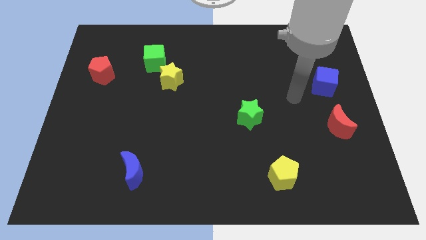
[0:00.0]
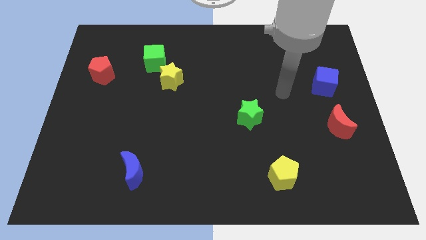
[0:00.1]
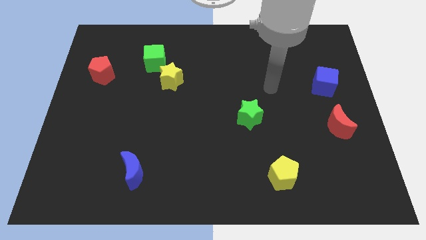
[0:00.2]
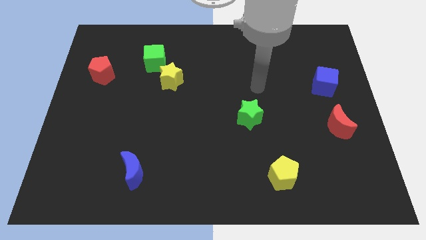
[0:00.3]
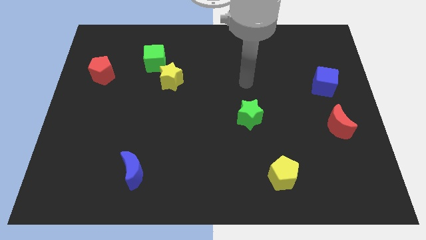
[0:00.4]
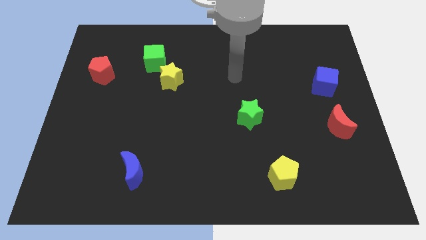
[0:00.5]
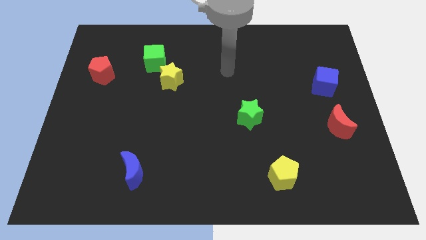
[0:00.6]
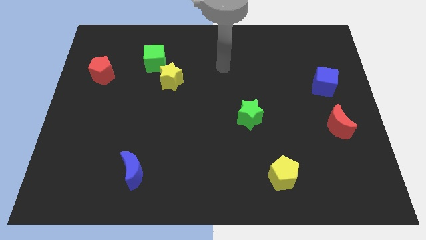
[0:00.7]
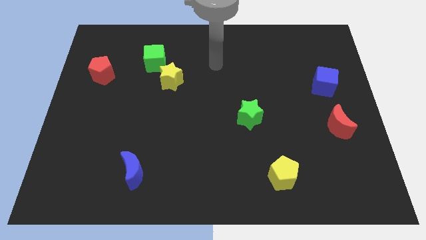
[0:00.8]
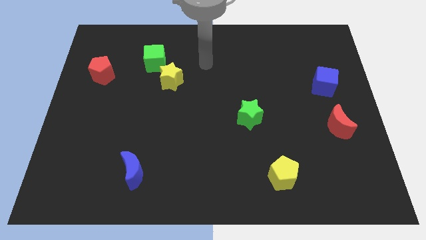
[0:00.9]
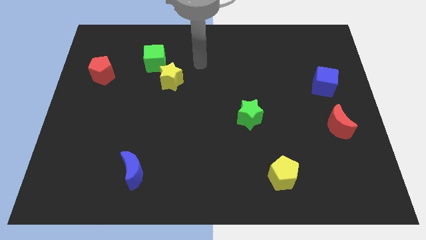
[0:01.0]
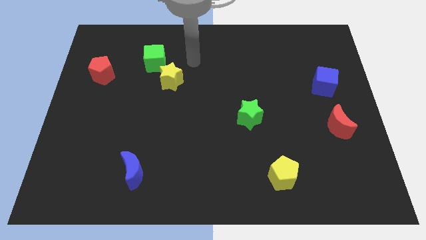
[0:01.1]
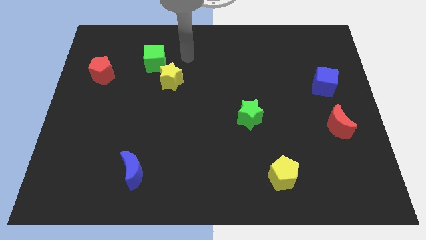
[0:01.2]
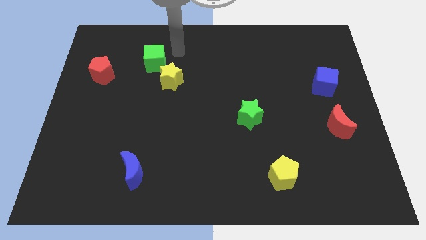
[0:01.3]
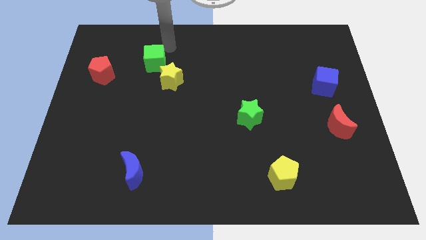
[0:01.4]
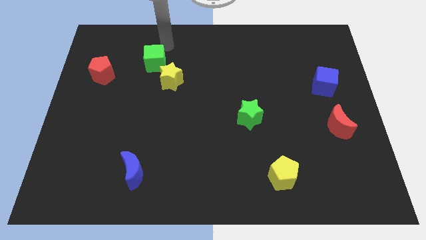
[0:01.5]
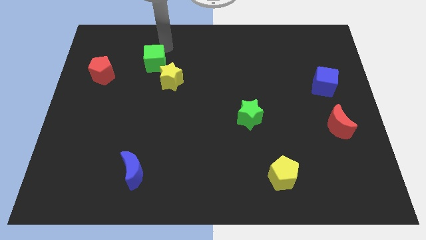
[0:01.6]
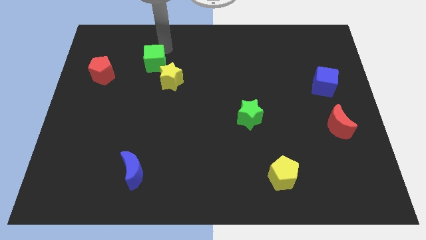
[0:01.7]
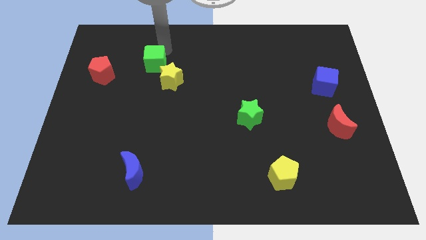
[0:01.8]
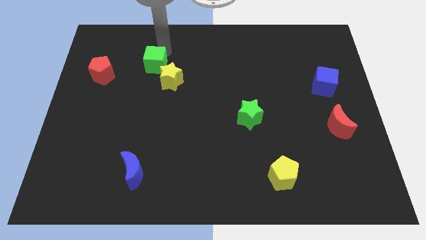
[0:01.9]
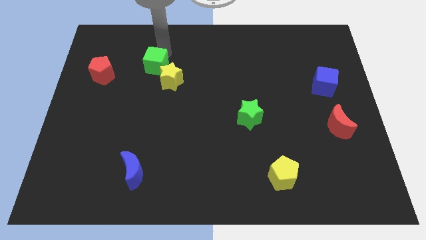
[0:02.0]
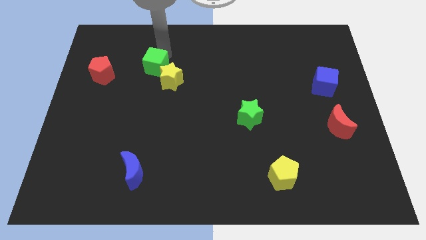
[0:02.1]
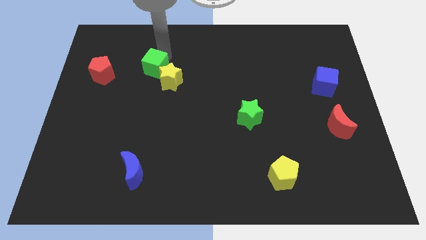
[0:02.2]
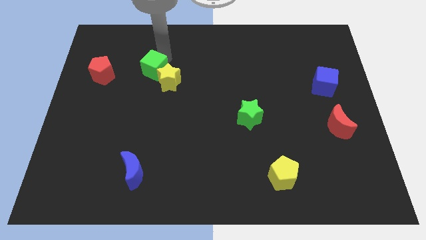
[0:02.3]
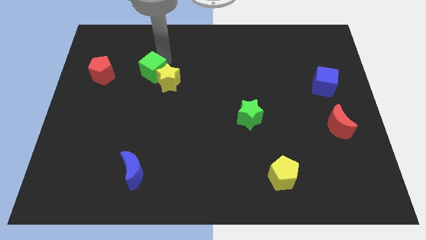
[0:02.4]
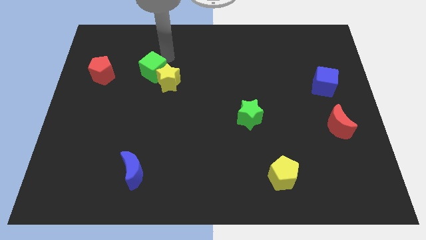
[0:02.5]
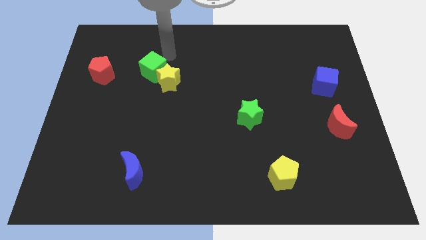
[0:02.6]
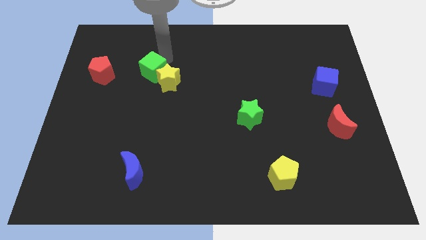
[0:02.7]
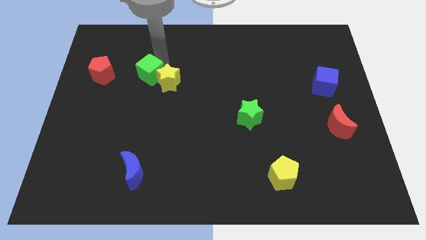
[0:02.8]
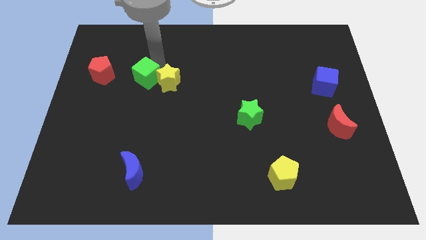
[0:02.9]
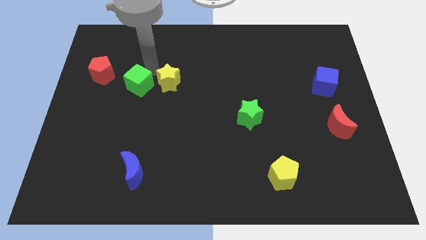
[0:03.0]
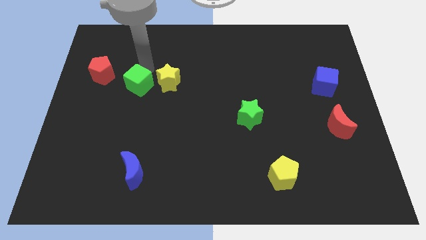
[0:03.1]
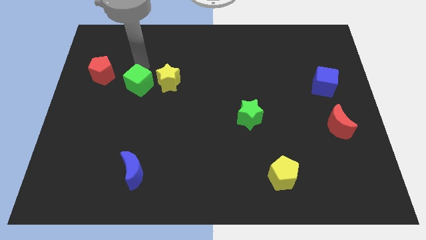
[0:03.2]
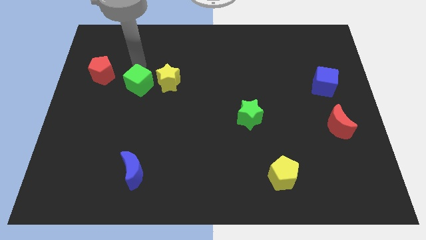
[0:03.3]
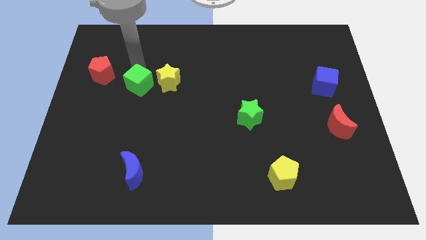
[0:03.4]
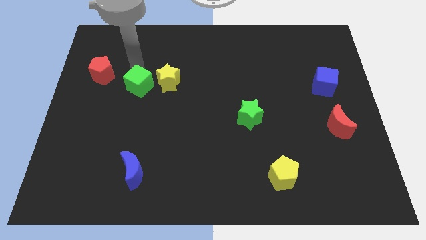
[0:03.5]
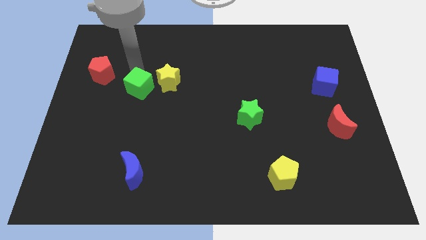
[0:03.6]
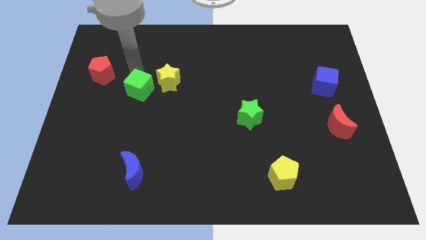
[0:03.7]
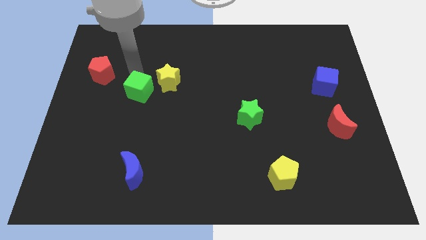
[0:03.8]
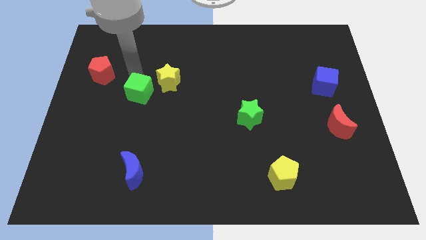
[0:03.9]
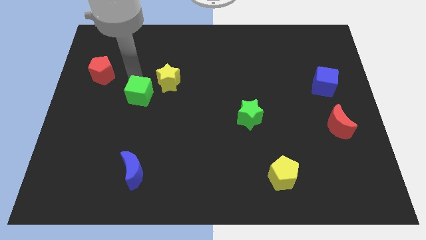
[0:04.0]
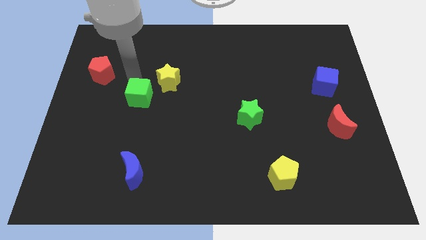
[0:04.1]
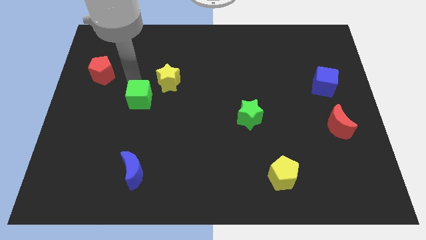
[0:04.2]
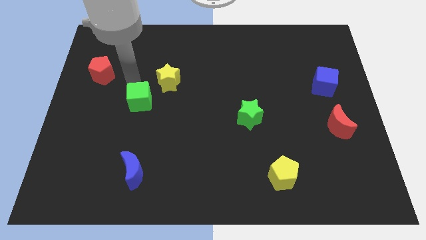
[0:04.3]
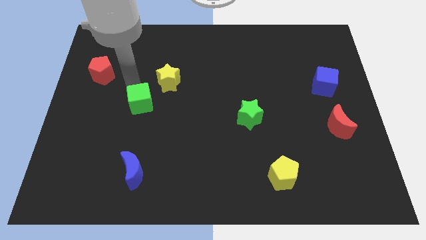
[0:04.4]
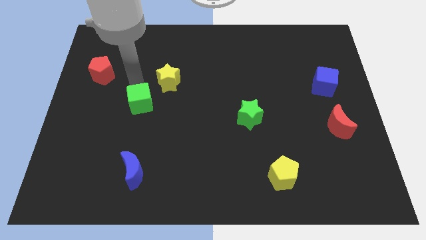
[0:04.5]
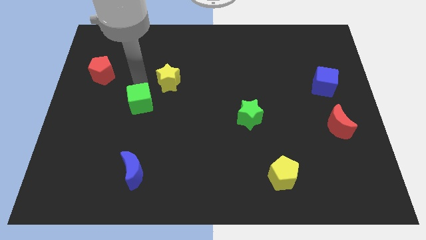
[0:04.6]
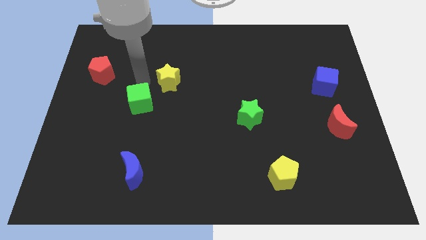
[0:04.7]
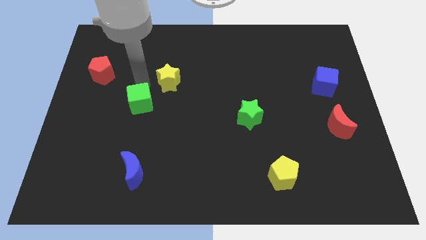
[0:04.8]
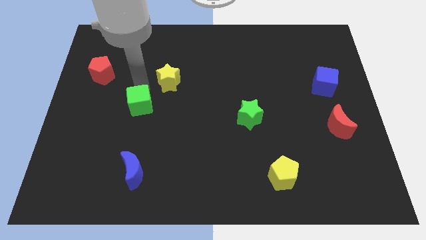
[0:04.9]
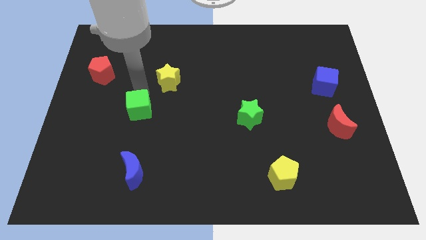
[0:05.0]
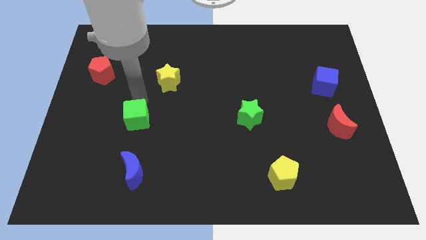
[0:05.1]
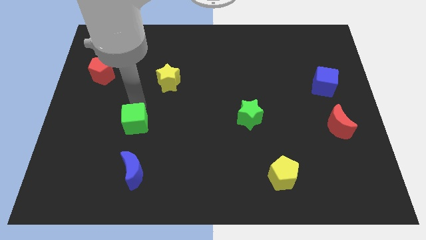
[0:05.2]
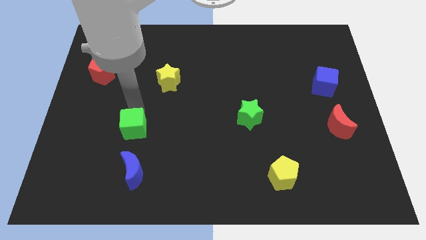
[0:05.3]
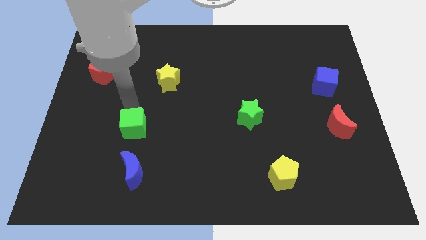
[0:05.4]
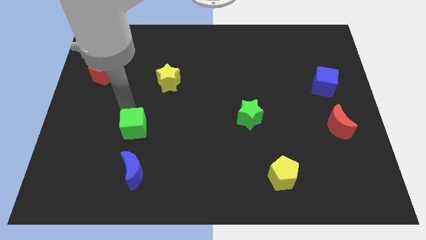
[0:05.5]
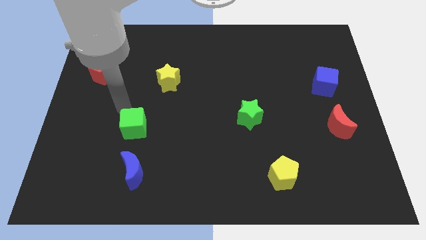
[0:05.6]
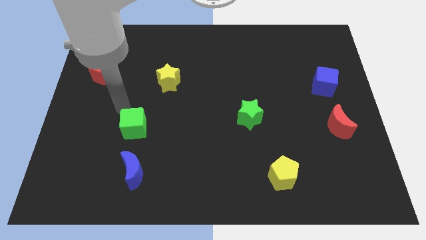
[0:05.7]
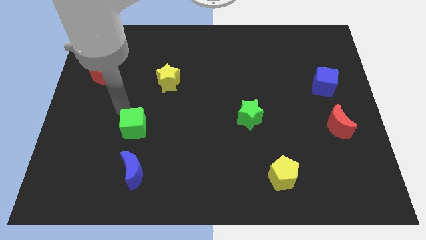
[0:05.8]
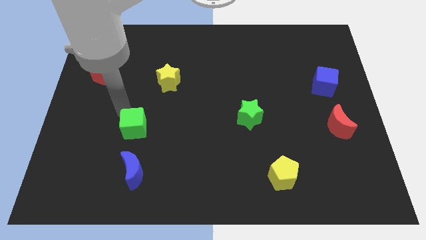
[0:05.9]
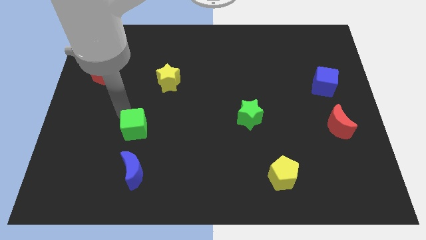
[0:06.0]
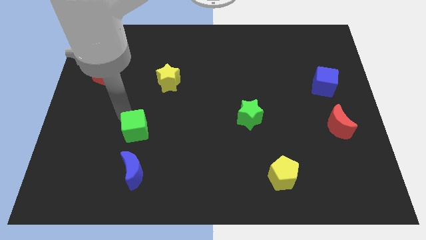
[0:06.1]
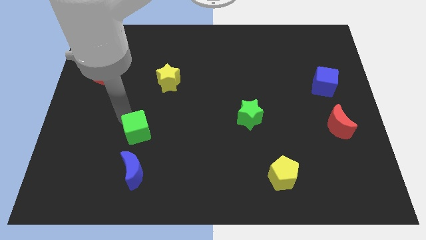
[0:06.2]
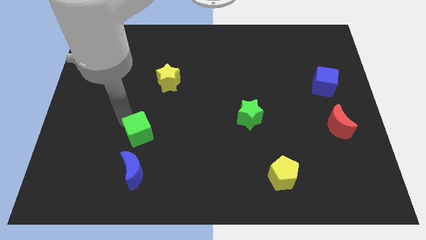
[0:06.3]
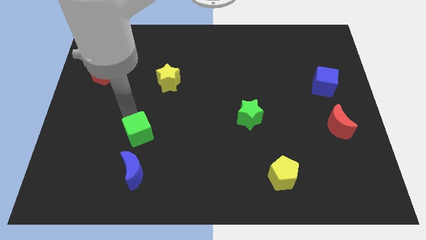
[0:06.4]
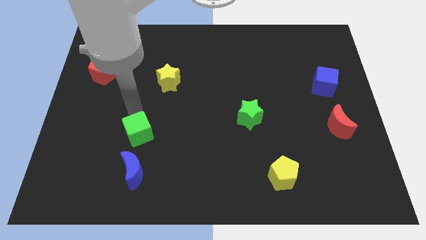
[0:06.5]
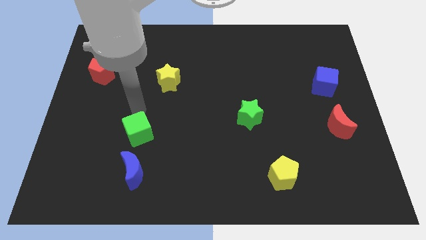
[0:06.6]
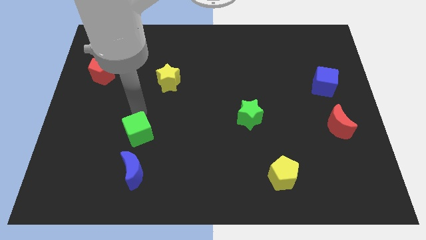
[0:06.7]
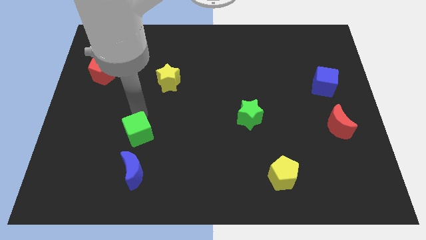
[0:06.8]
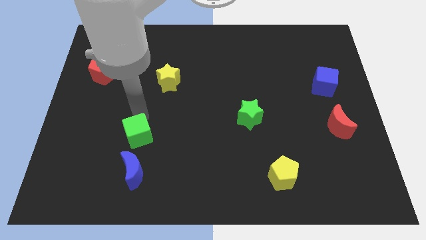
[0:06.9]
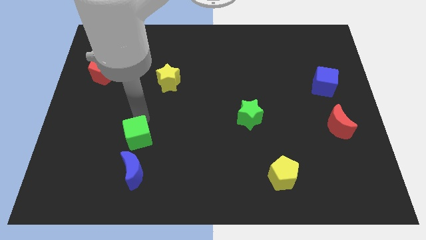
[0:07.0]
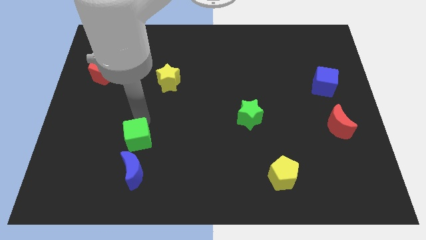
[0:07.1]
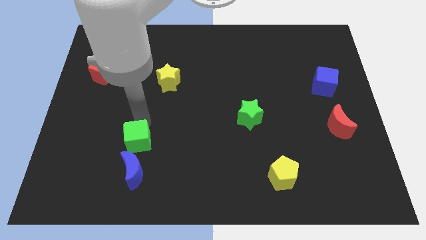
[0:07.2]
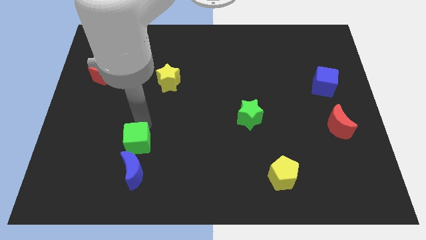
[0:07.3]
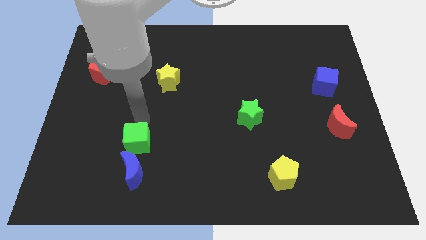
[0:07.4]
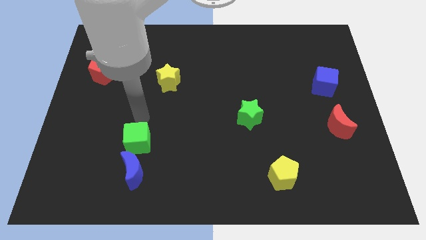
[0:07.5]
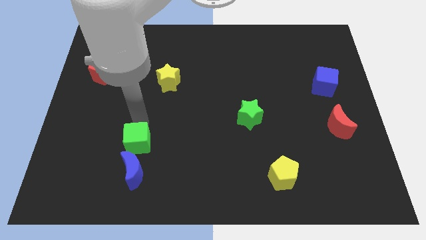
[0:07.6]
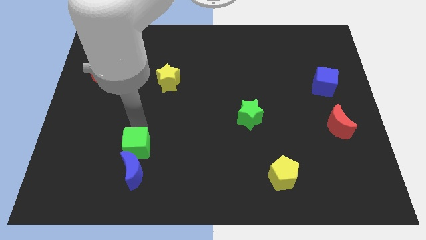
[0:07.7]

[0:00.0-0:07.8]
put the green cube close to the blue moon

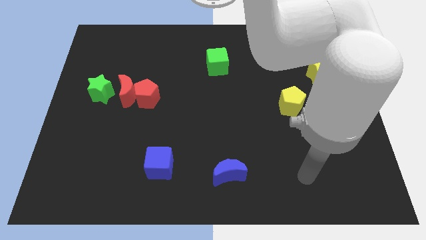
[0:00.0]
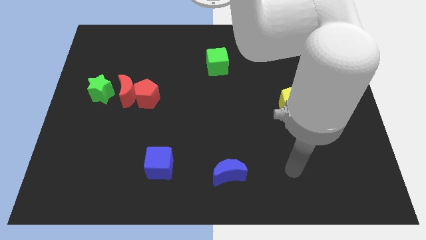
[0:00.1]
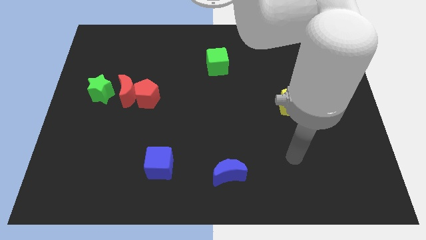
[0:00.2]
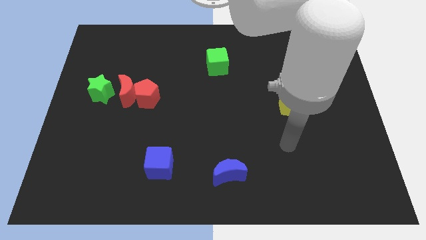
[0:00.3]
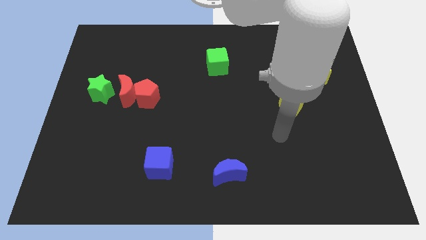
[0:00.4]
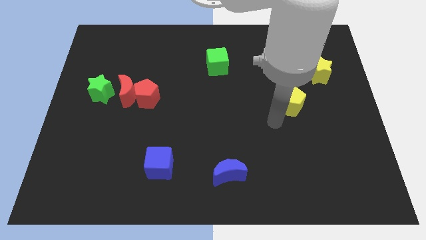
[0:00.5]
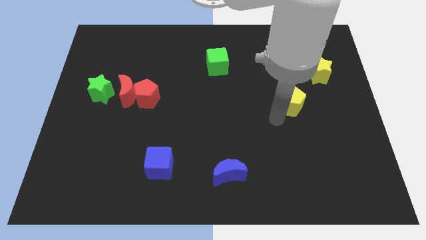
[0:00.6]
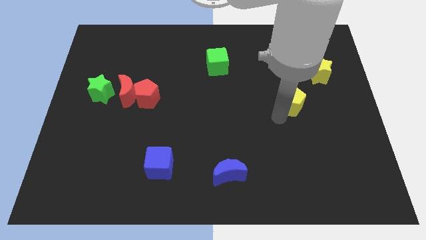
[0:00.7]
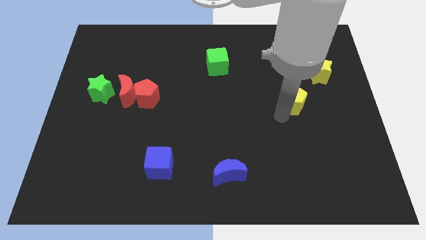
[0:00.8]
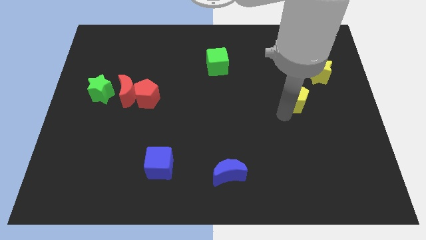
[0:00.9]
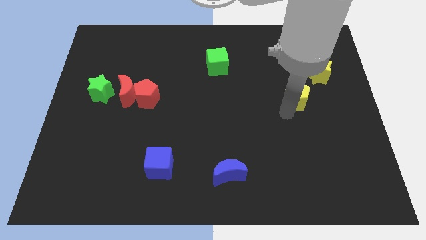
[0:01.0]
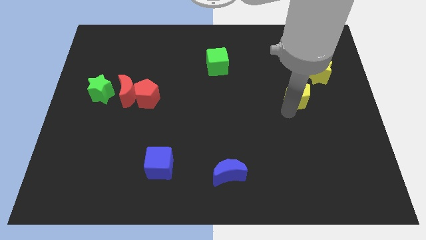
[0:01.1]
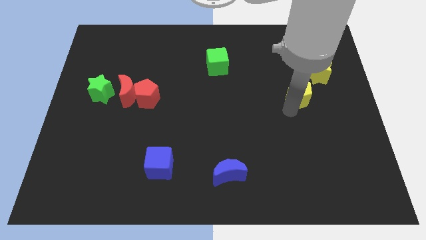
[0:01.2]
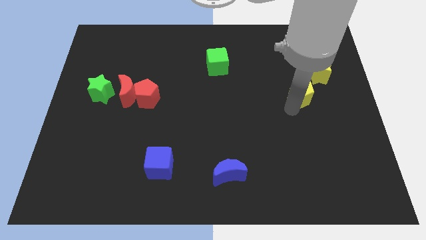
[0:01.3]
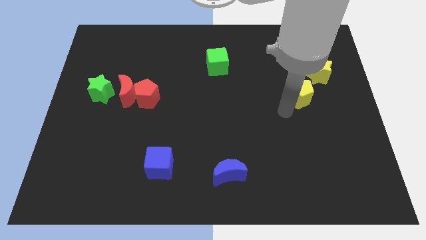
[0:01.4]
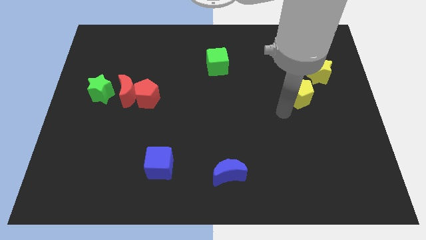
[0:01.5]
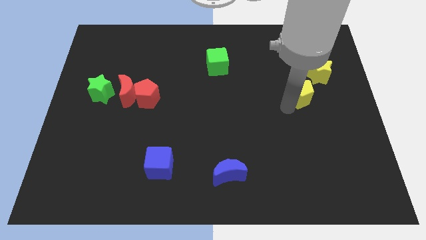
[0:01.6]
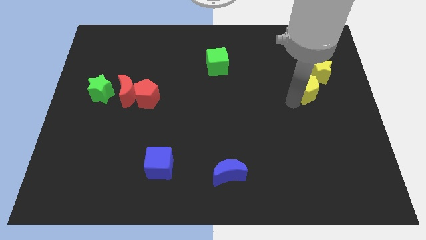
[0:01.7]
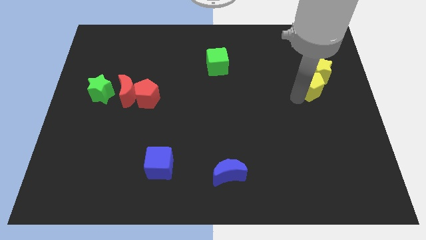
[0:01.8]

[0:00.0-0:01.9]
put the yellow pentagon to the yellow star
